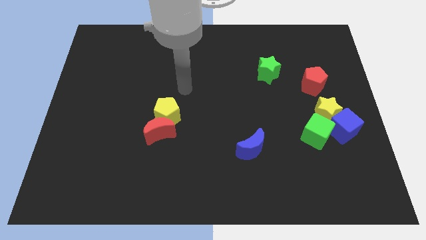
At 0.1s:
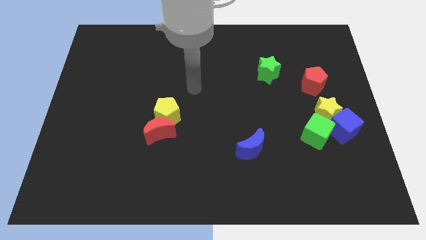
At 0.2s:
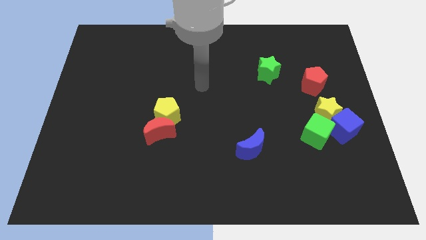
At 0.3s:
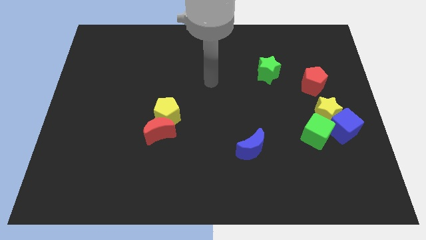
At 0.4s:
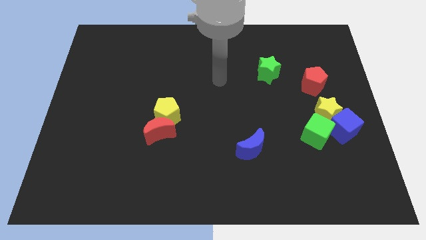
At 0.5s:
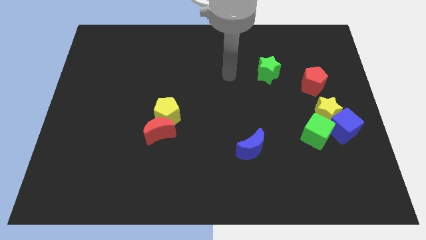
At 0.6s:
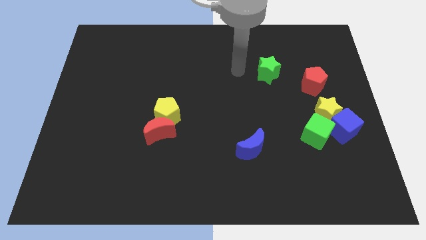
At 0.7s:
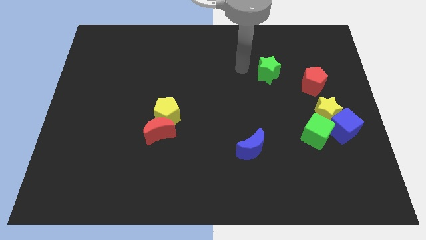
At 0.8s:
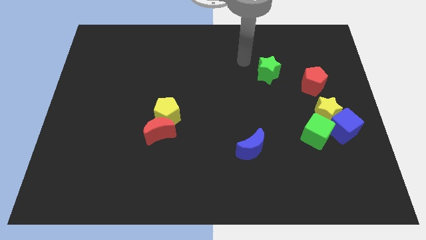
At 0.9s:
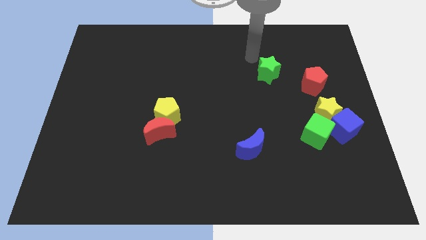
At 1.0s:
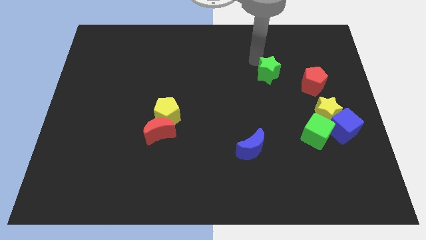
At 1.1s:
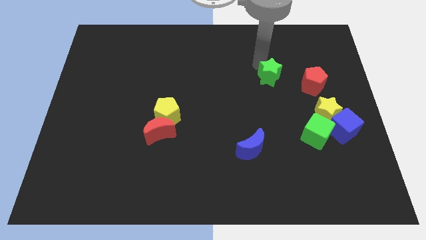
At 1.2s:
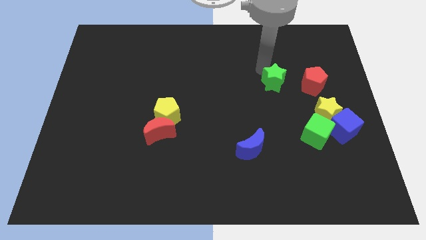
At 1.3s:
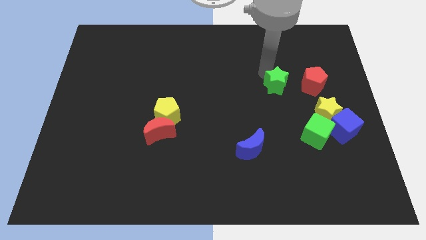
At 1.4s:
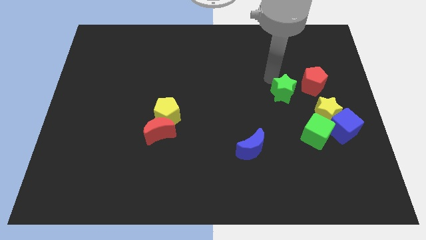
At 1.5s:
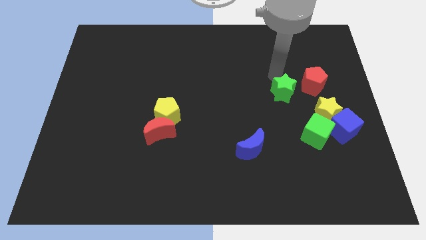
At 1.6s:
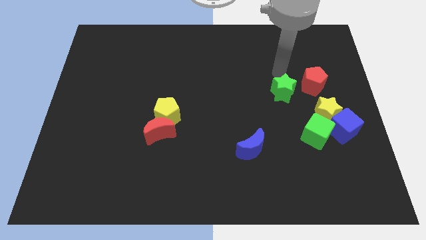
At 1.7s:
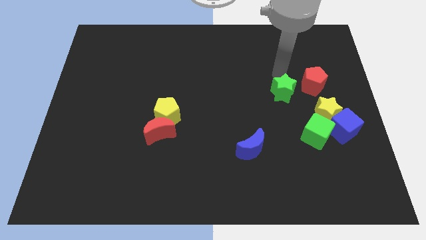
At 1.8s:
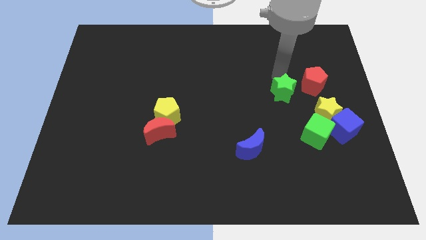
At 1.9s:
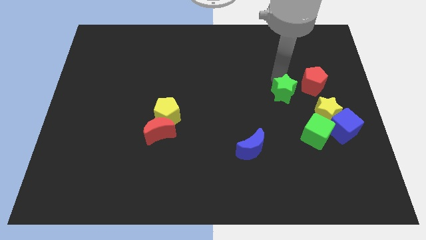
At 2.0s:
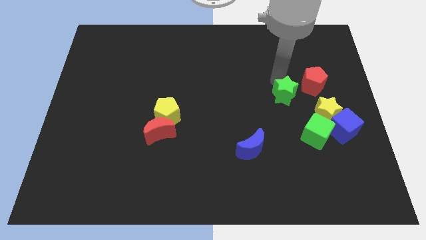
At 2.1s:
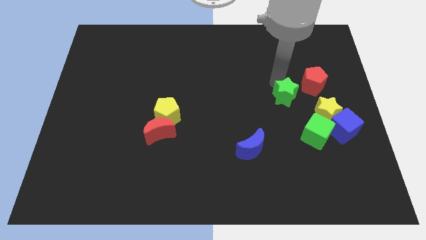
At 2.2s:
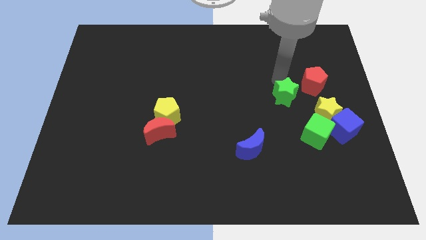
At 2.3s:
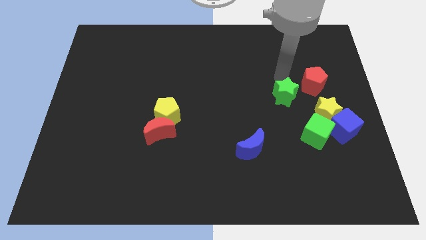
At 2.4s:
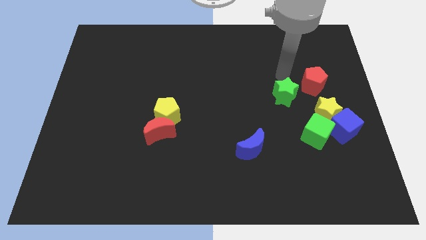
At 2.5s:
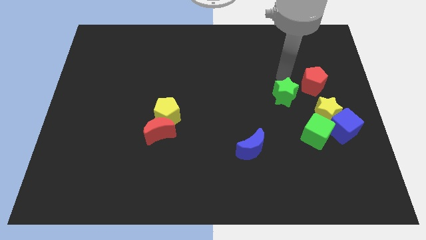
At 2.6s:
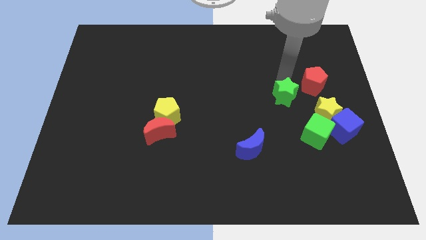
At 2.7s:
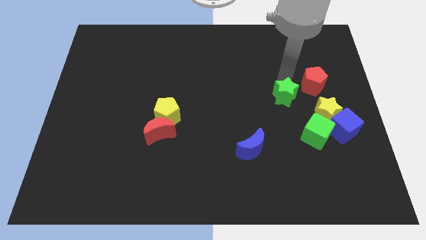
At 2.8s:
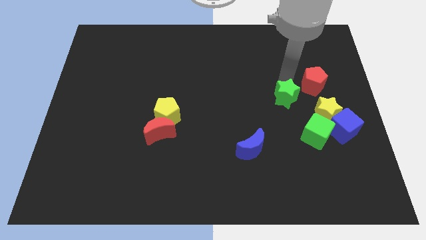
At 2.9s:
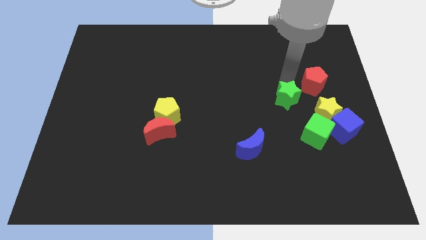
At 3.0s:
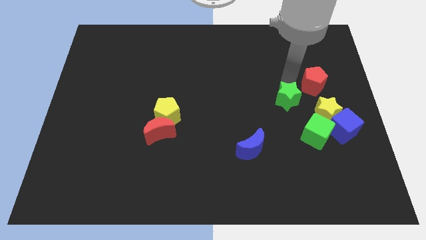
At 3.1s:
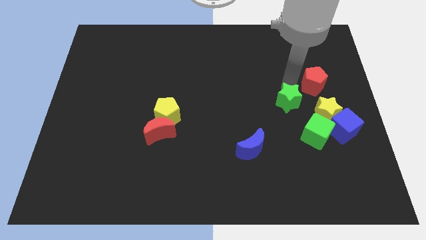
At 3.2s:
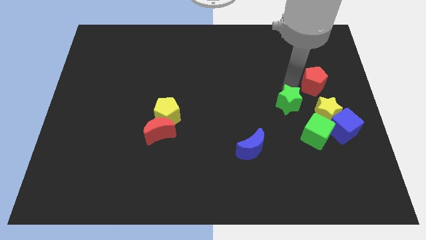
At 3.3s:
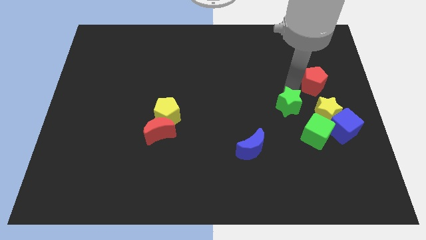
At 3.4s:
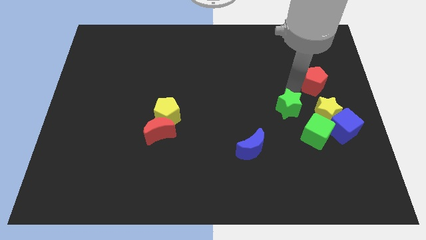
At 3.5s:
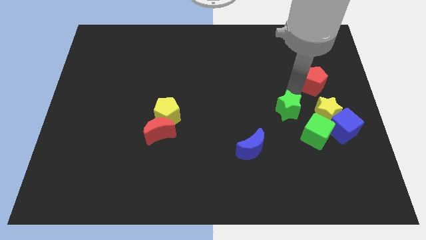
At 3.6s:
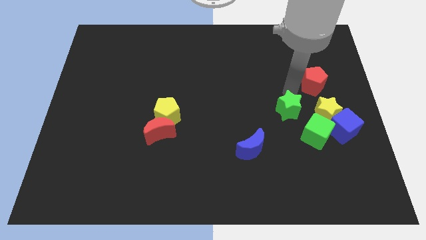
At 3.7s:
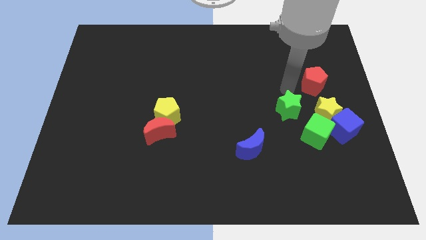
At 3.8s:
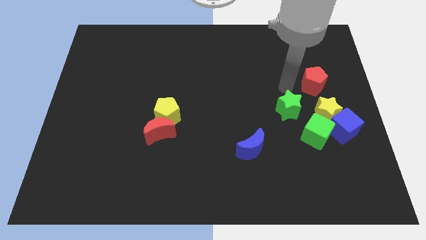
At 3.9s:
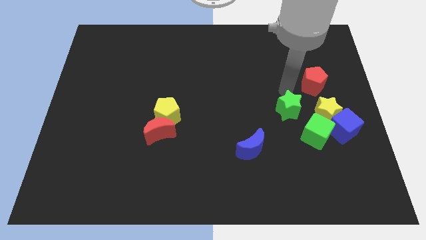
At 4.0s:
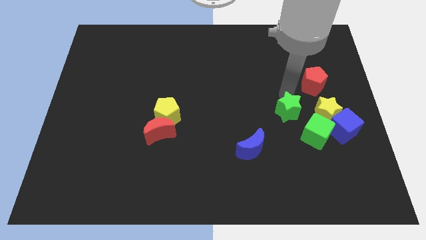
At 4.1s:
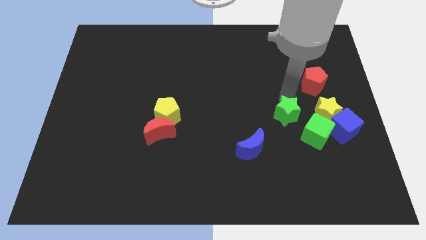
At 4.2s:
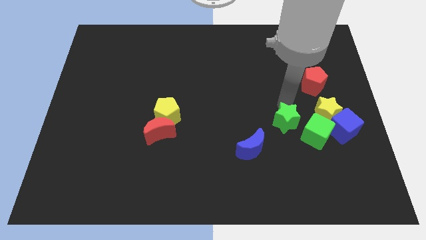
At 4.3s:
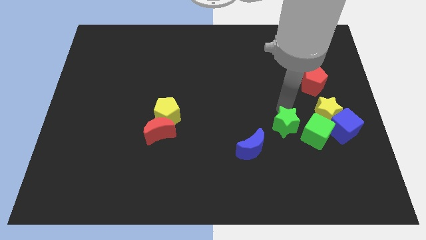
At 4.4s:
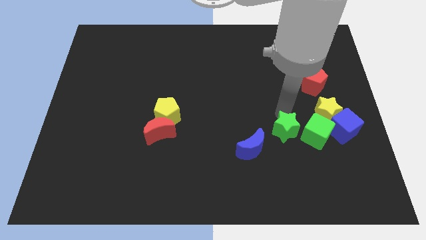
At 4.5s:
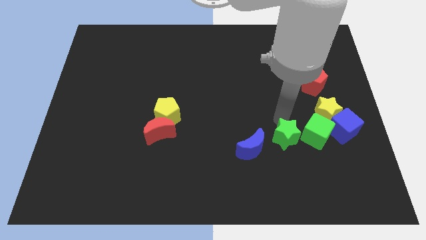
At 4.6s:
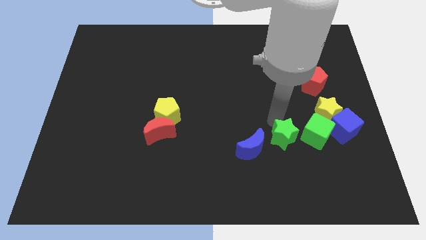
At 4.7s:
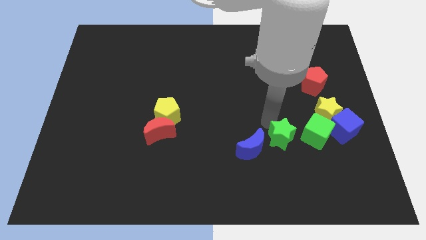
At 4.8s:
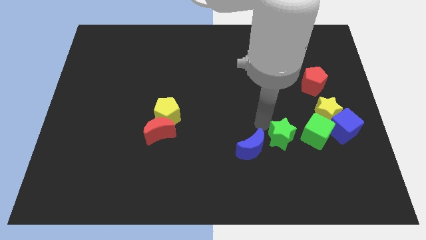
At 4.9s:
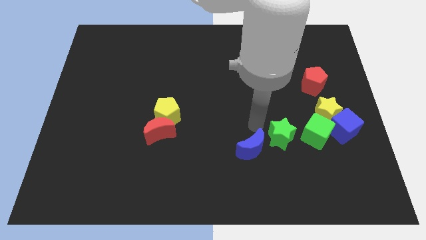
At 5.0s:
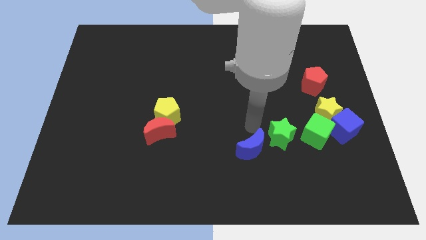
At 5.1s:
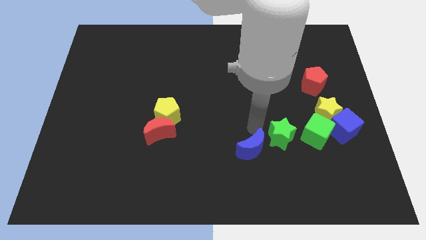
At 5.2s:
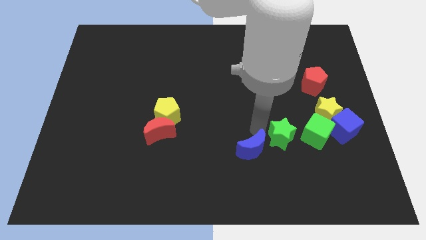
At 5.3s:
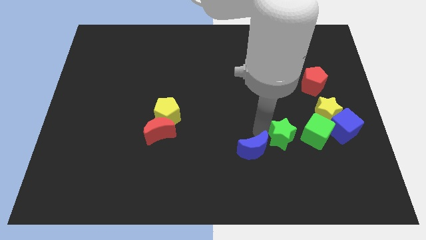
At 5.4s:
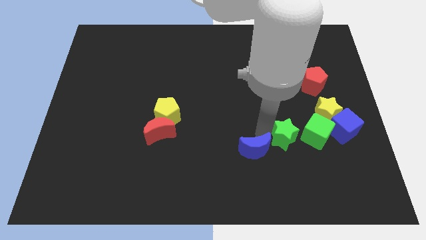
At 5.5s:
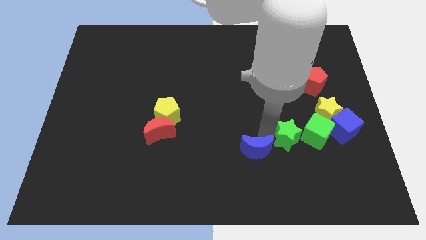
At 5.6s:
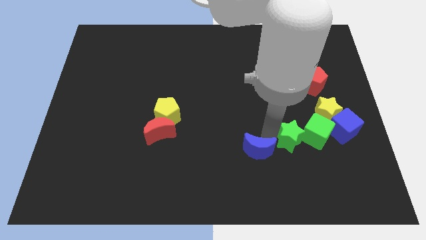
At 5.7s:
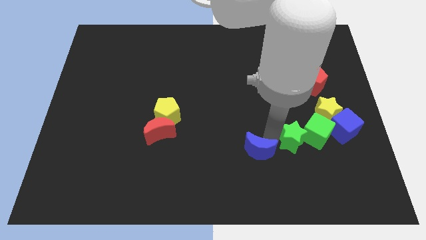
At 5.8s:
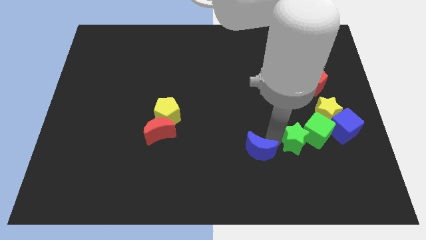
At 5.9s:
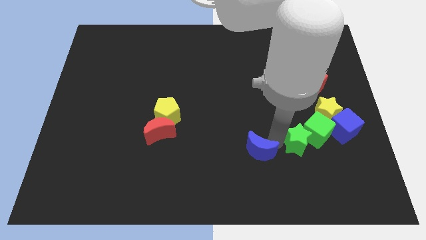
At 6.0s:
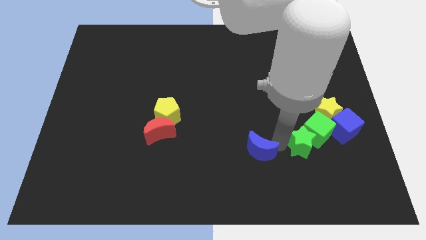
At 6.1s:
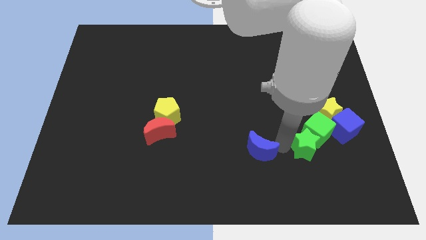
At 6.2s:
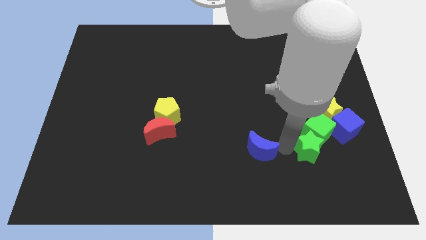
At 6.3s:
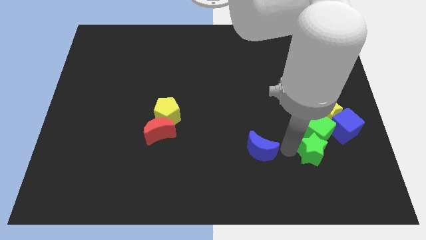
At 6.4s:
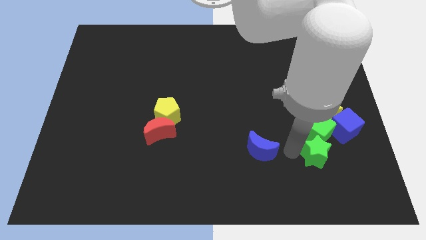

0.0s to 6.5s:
move the green star below the yellow star
